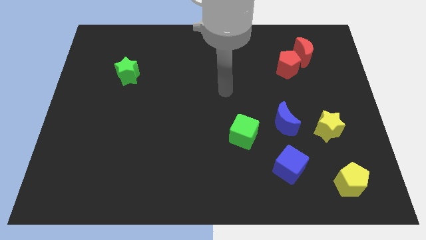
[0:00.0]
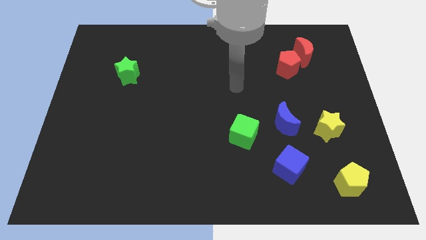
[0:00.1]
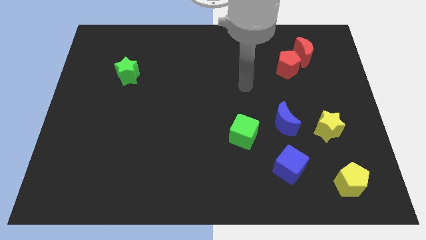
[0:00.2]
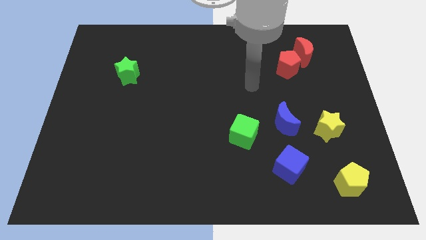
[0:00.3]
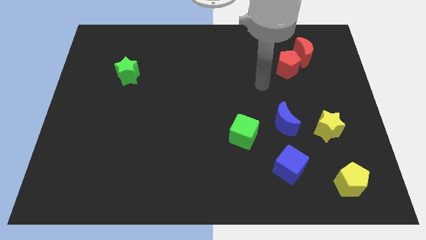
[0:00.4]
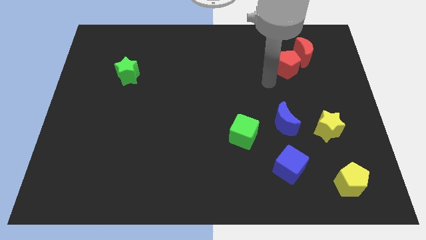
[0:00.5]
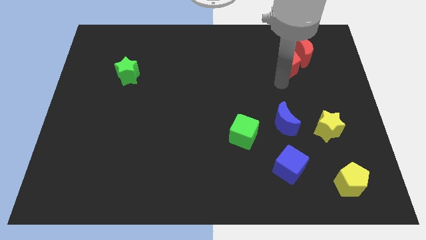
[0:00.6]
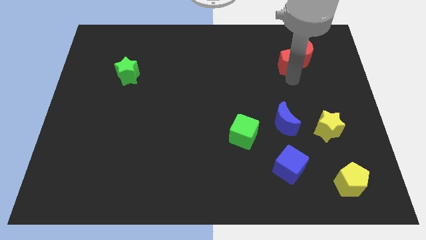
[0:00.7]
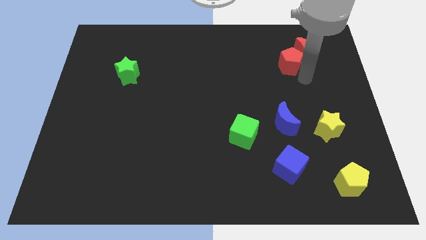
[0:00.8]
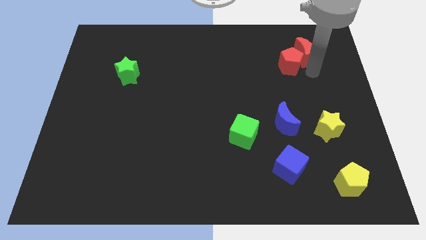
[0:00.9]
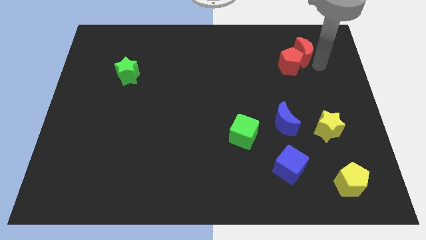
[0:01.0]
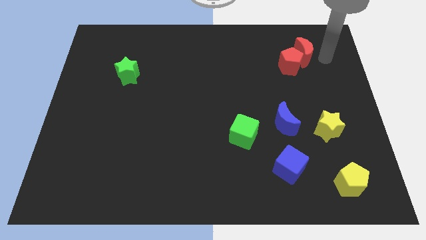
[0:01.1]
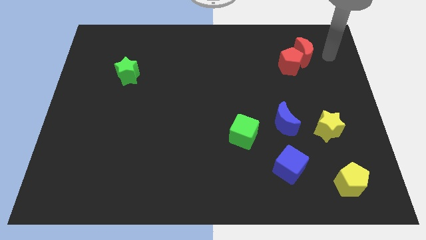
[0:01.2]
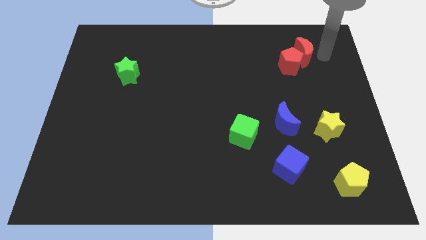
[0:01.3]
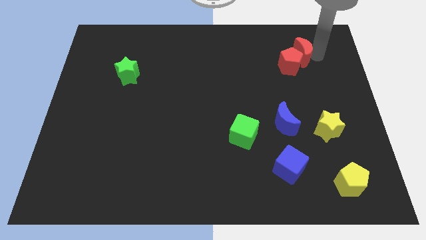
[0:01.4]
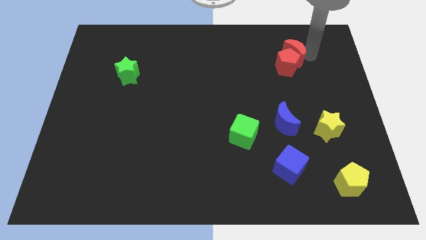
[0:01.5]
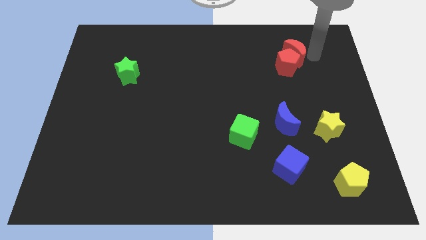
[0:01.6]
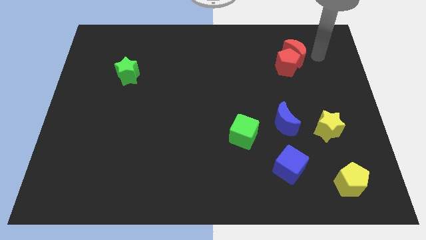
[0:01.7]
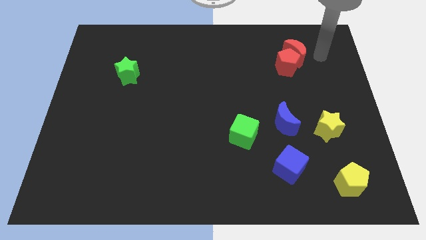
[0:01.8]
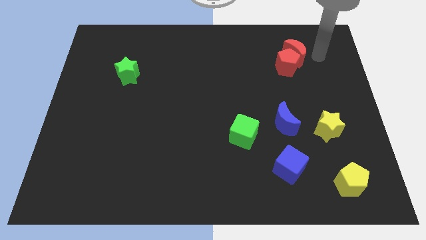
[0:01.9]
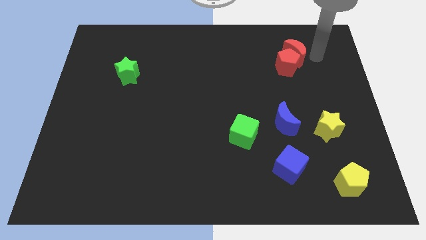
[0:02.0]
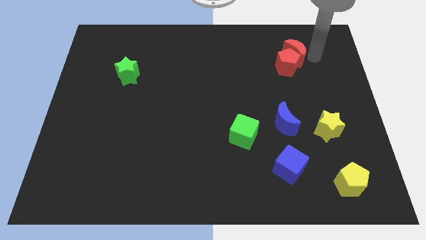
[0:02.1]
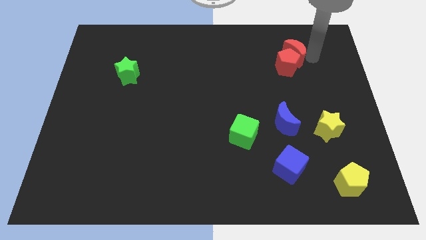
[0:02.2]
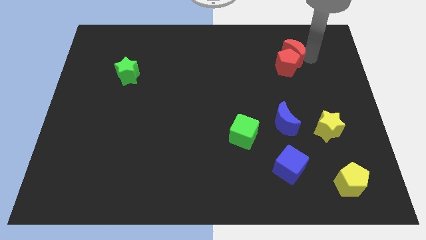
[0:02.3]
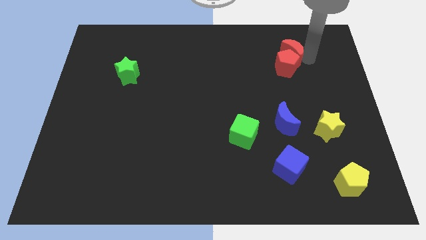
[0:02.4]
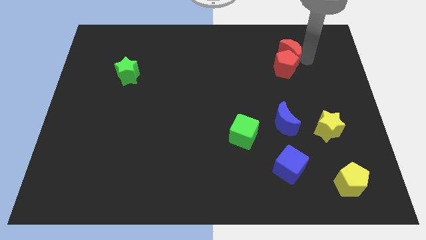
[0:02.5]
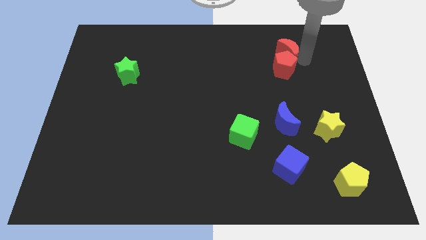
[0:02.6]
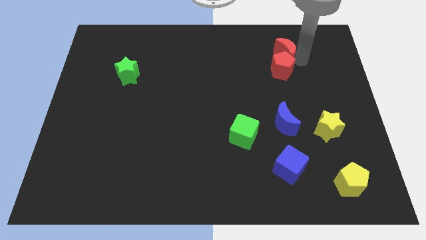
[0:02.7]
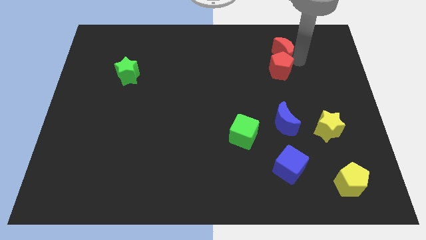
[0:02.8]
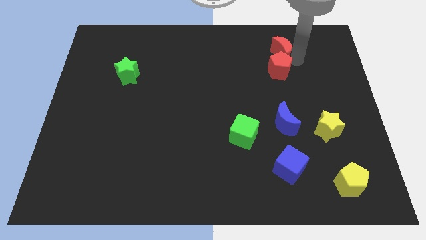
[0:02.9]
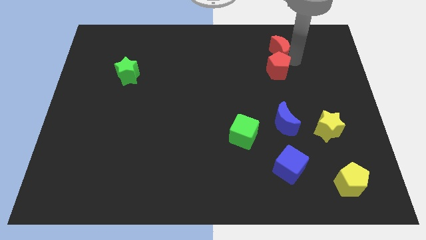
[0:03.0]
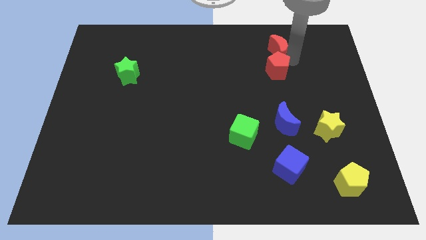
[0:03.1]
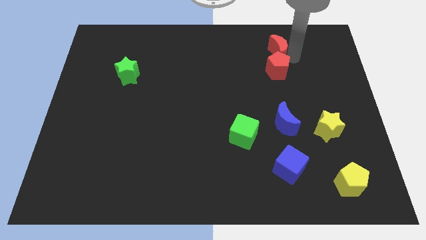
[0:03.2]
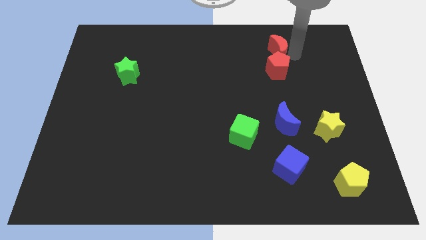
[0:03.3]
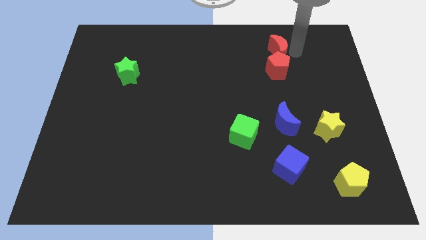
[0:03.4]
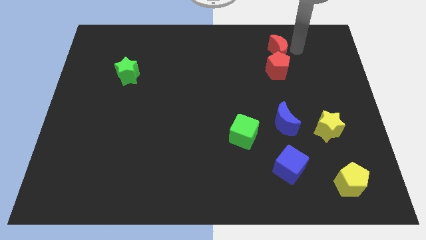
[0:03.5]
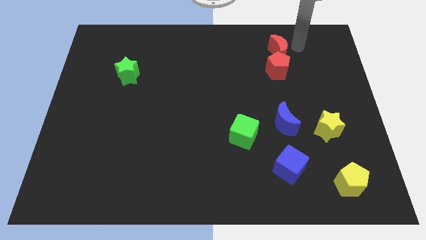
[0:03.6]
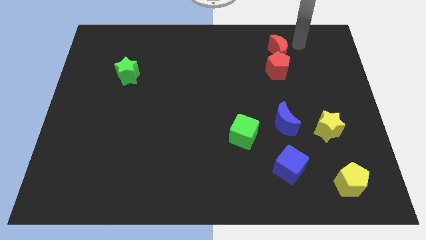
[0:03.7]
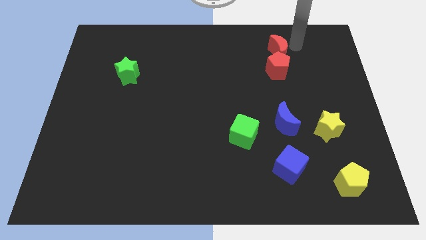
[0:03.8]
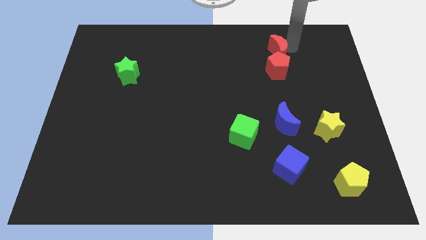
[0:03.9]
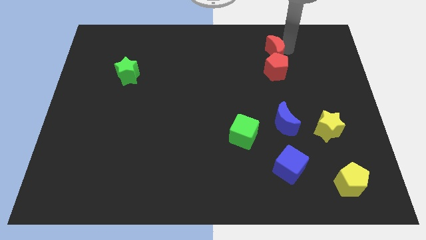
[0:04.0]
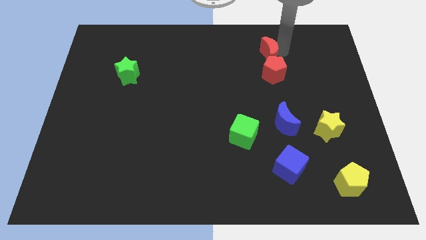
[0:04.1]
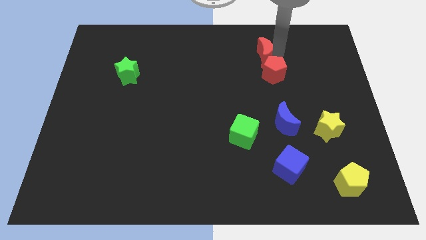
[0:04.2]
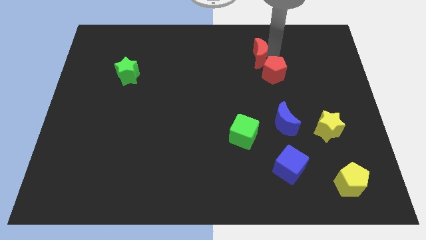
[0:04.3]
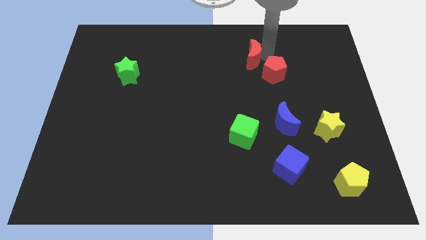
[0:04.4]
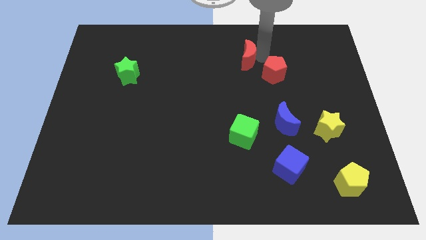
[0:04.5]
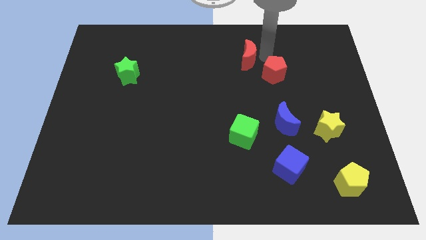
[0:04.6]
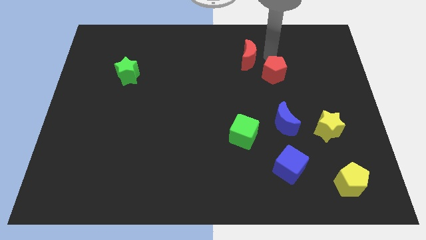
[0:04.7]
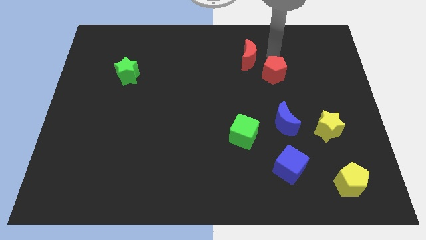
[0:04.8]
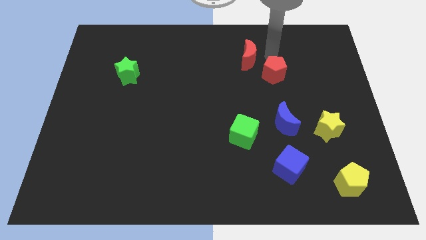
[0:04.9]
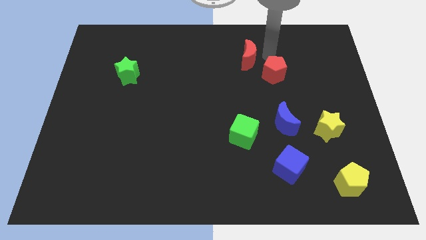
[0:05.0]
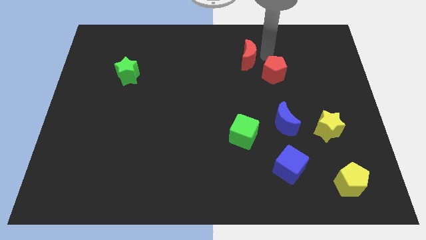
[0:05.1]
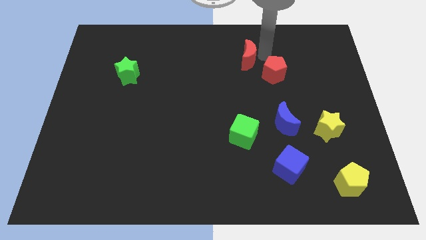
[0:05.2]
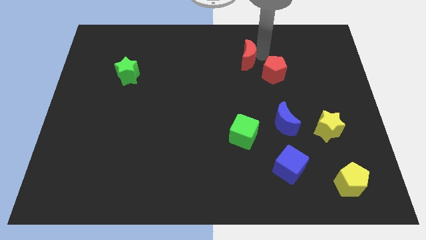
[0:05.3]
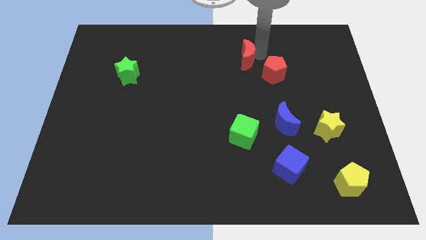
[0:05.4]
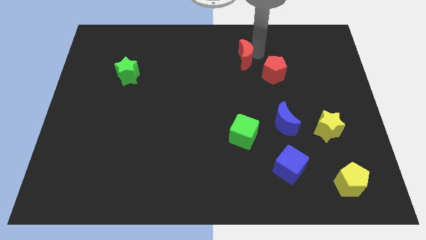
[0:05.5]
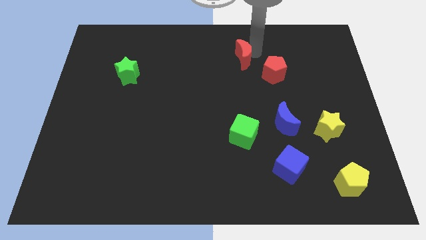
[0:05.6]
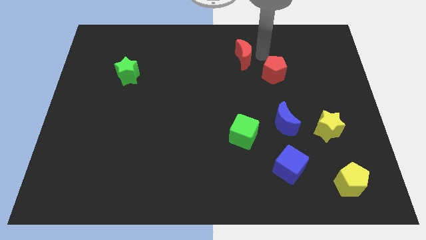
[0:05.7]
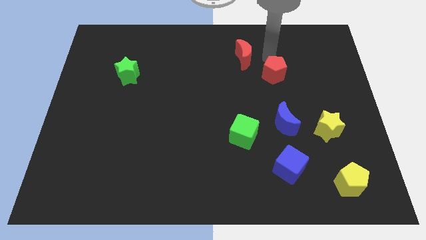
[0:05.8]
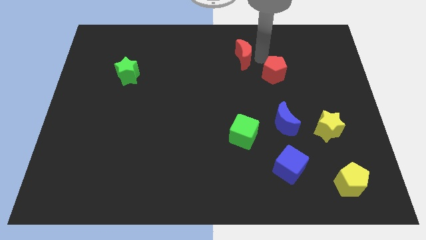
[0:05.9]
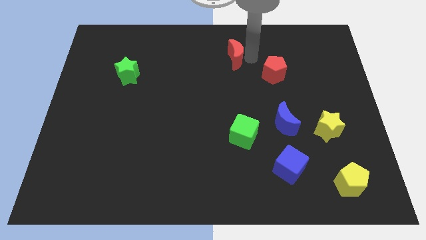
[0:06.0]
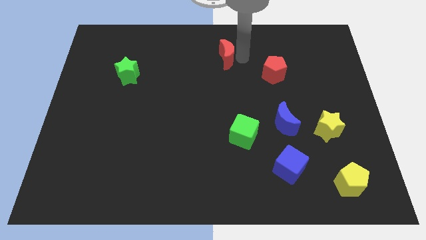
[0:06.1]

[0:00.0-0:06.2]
slide the red moon left

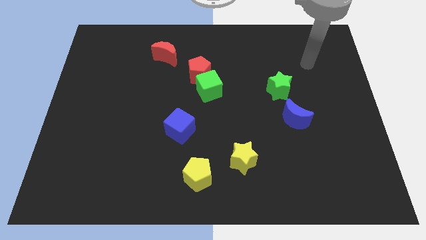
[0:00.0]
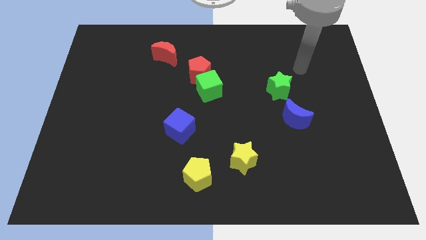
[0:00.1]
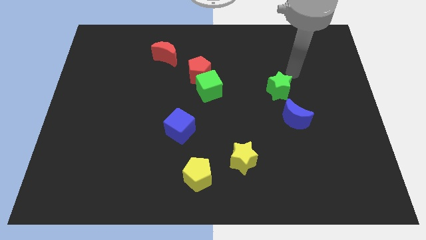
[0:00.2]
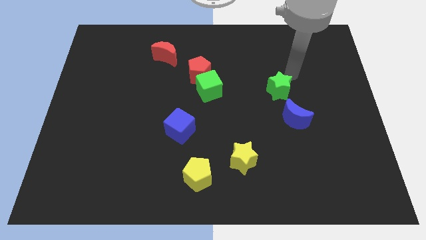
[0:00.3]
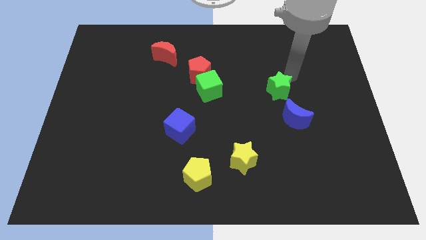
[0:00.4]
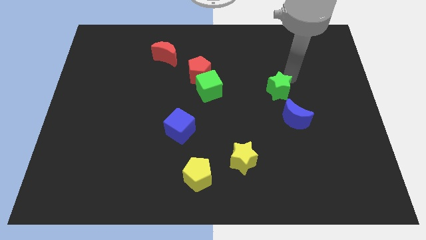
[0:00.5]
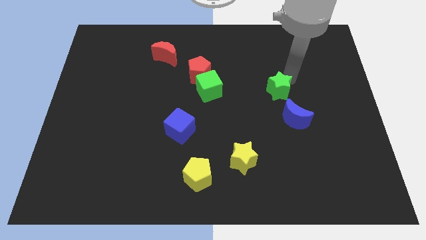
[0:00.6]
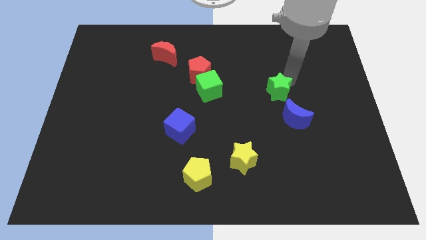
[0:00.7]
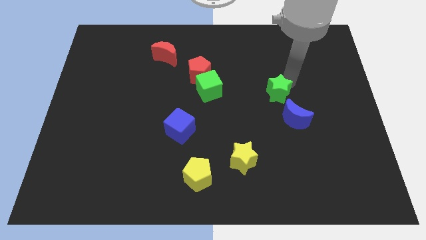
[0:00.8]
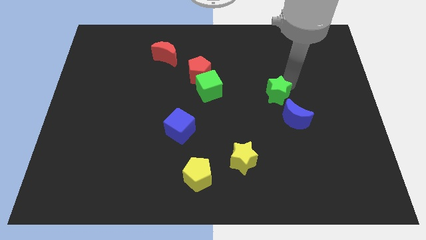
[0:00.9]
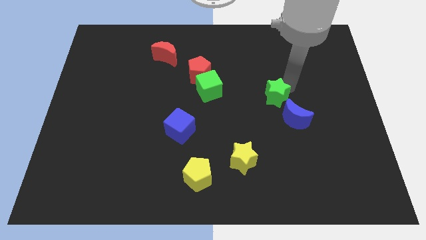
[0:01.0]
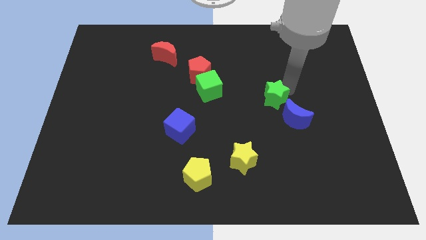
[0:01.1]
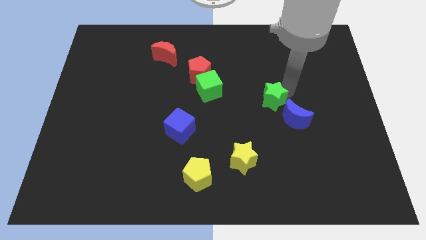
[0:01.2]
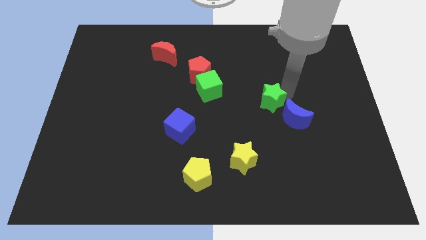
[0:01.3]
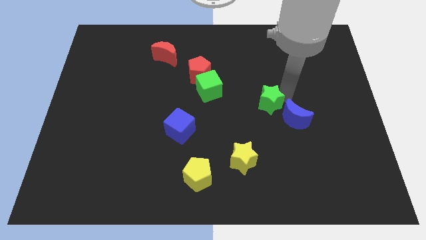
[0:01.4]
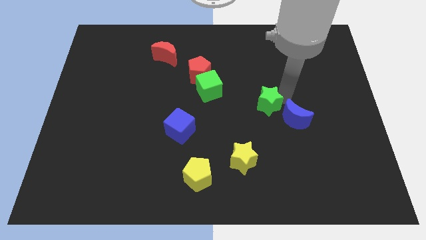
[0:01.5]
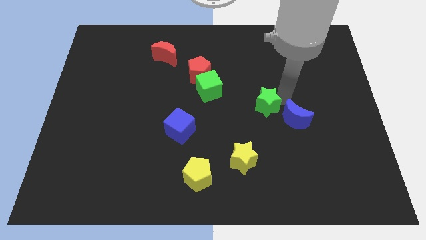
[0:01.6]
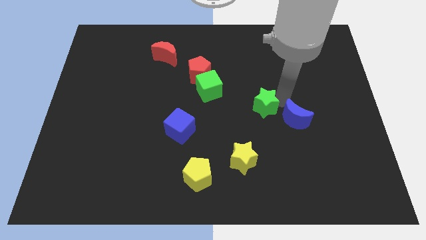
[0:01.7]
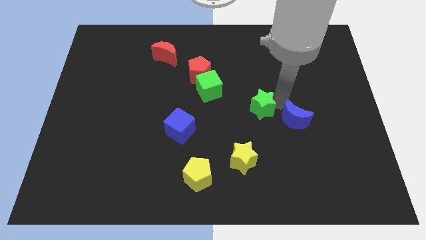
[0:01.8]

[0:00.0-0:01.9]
slightly push the green star diagonally downwards and left
